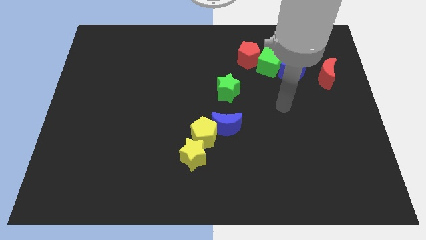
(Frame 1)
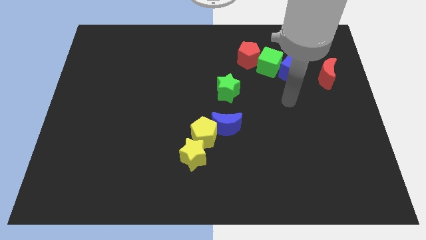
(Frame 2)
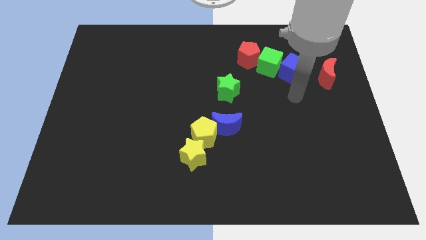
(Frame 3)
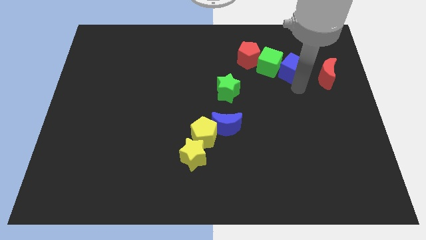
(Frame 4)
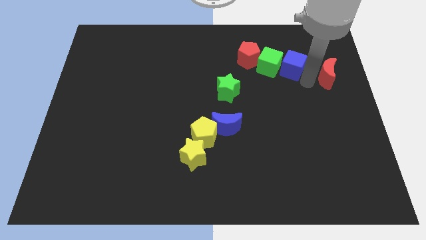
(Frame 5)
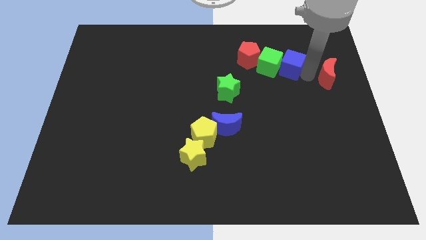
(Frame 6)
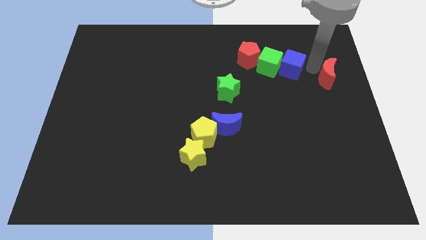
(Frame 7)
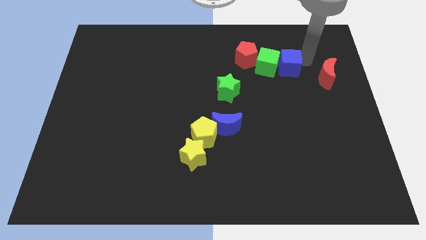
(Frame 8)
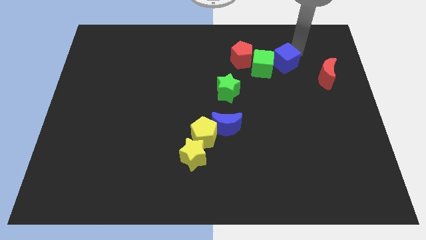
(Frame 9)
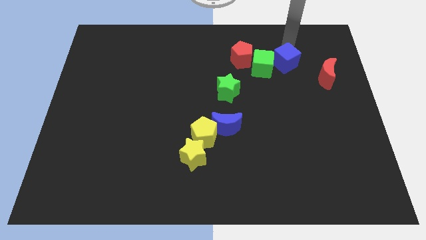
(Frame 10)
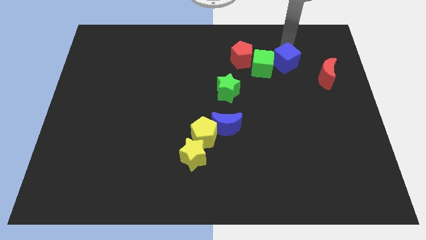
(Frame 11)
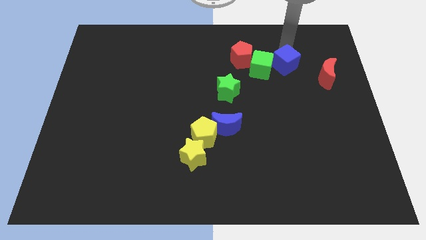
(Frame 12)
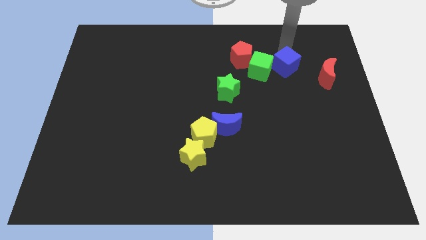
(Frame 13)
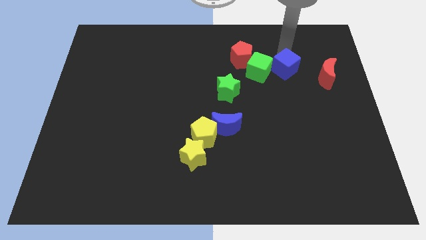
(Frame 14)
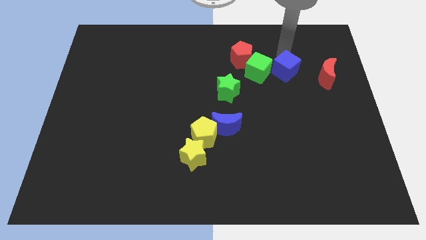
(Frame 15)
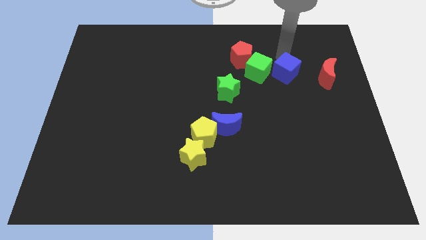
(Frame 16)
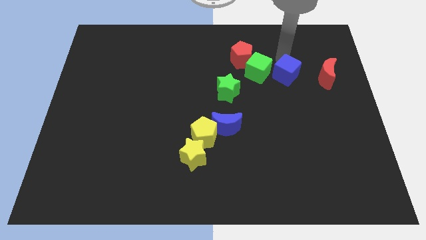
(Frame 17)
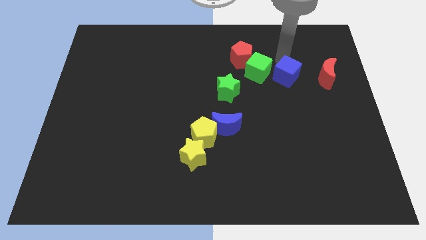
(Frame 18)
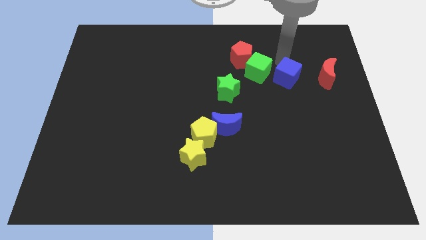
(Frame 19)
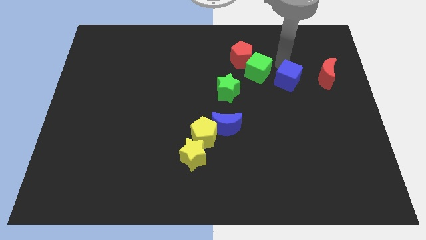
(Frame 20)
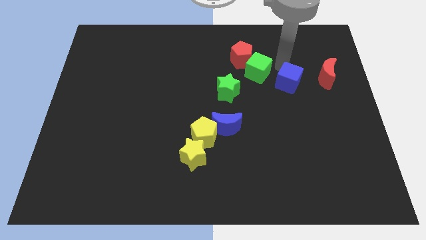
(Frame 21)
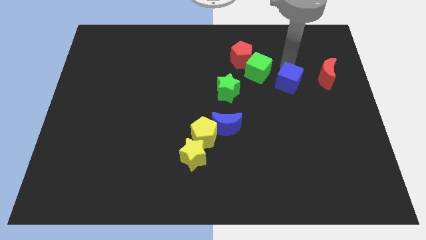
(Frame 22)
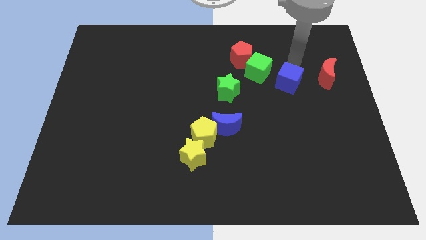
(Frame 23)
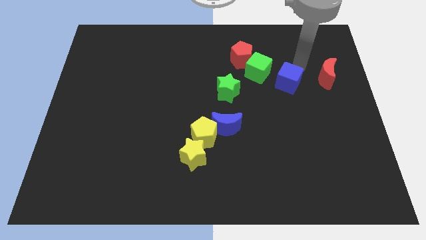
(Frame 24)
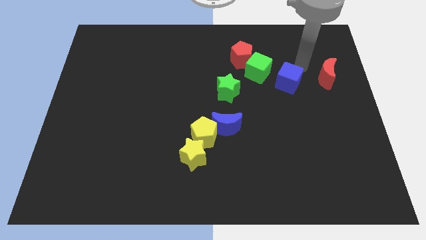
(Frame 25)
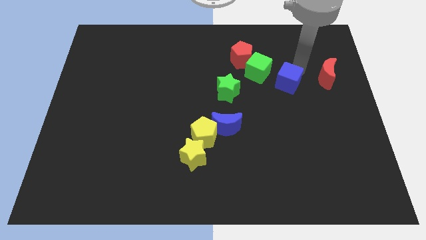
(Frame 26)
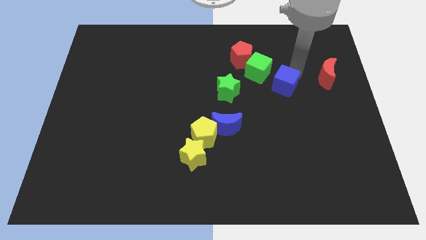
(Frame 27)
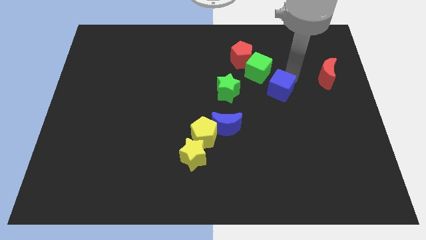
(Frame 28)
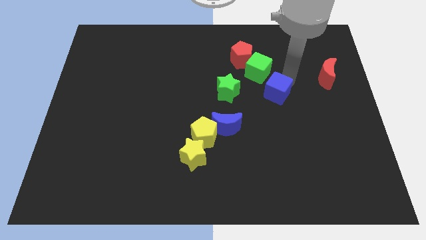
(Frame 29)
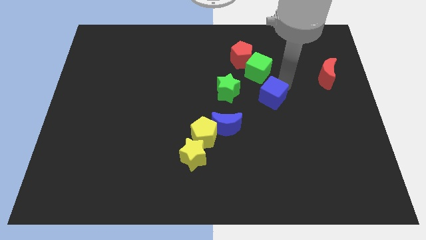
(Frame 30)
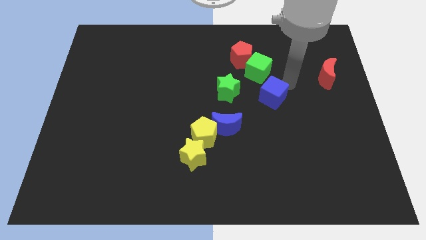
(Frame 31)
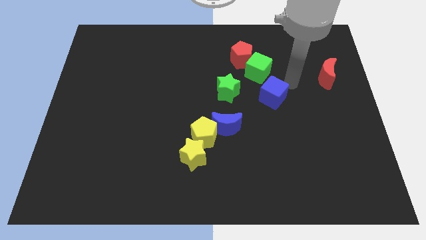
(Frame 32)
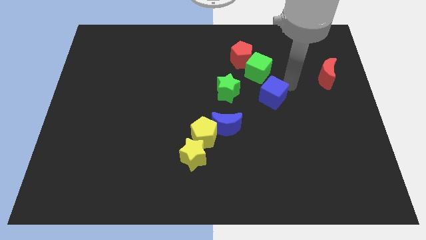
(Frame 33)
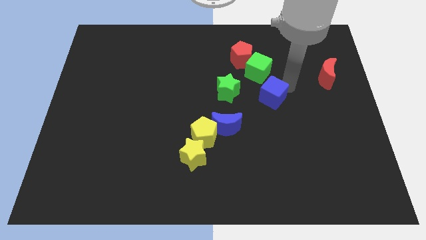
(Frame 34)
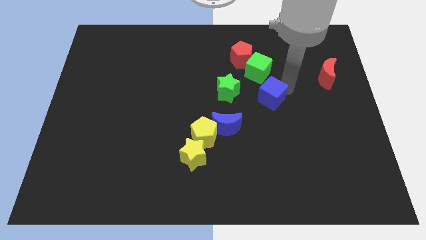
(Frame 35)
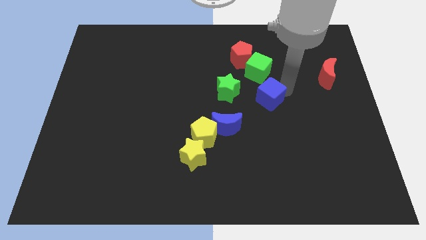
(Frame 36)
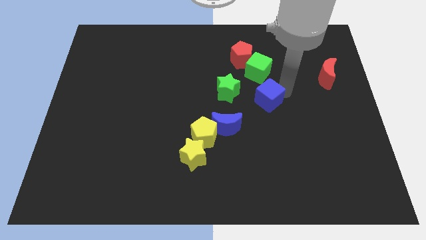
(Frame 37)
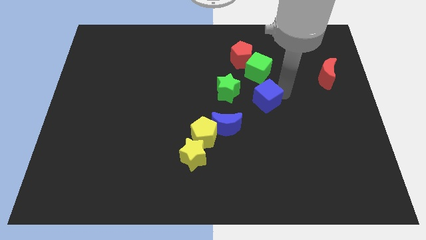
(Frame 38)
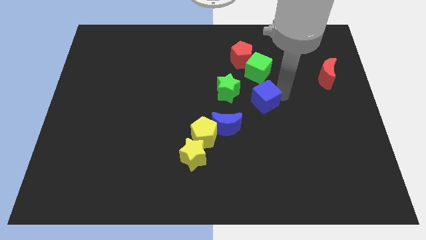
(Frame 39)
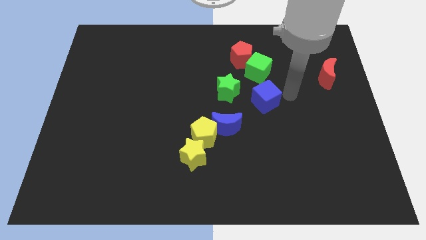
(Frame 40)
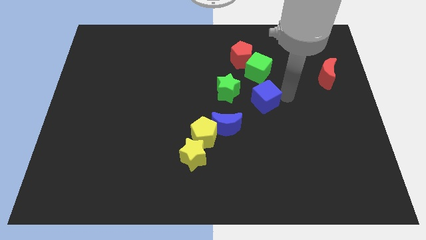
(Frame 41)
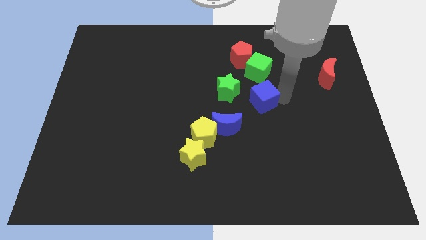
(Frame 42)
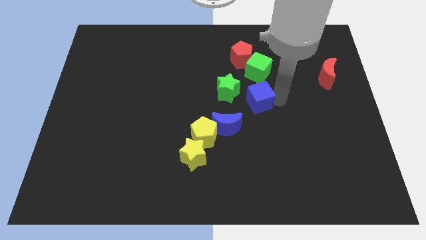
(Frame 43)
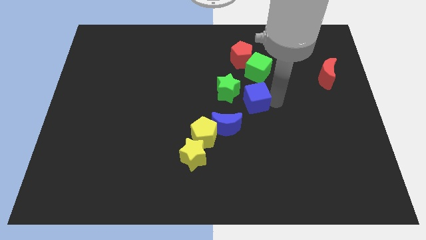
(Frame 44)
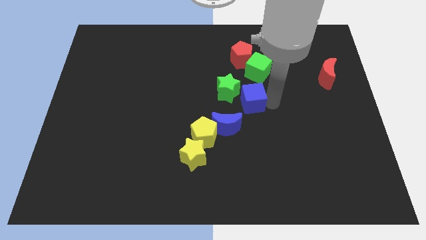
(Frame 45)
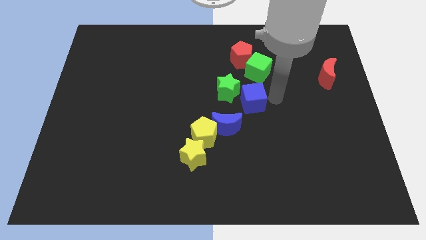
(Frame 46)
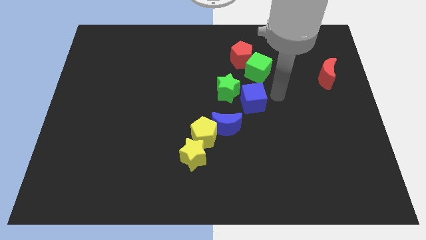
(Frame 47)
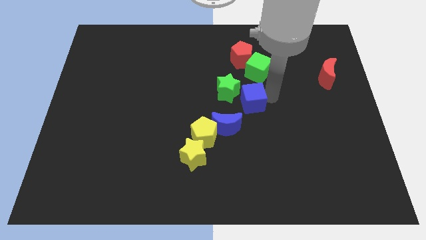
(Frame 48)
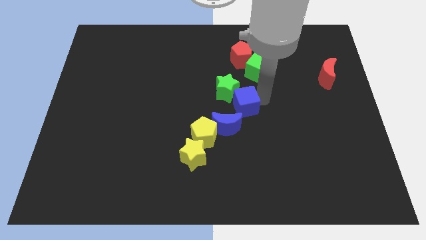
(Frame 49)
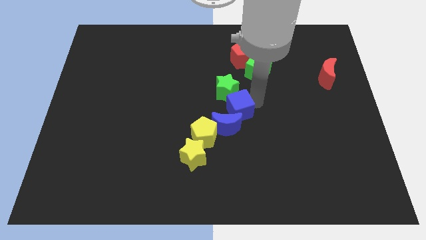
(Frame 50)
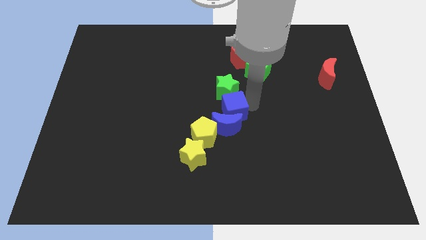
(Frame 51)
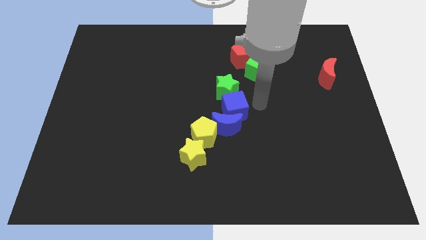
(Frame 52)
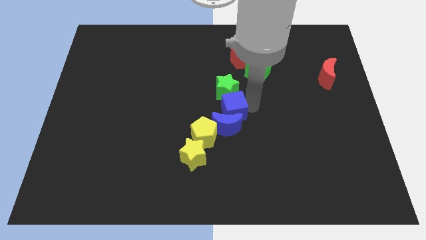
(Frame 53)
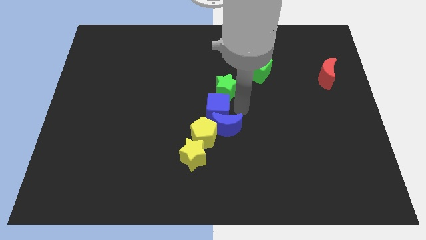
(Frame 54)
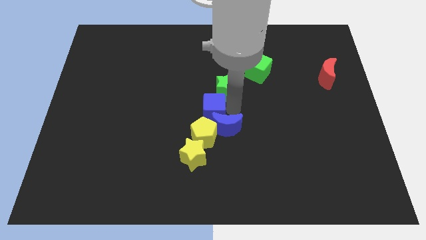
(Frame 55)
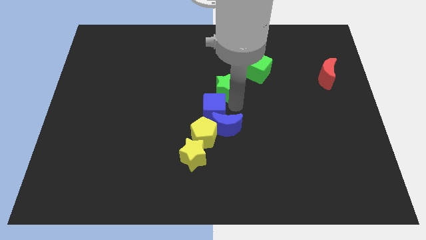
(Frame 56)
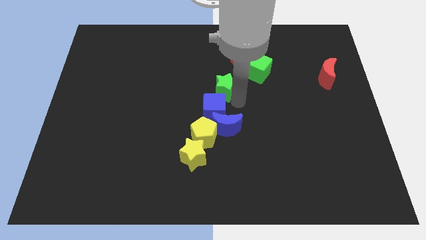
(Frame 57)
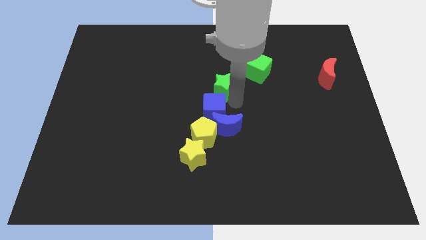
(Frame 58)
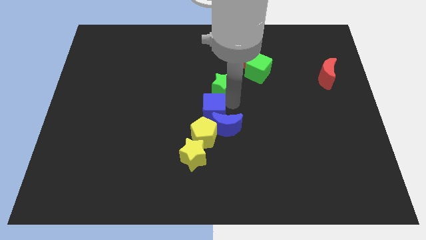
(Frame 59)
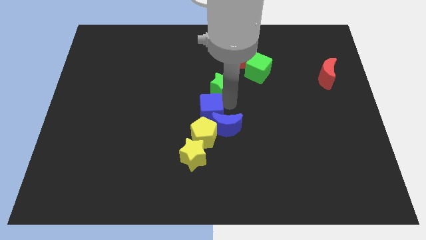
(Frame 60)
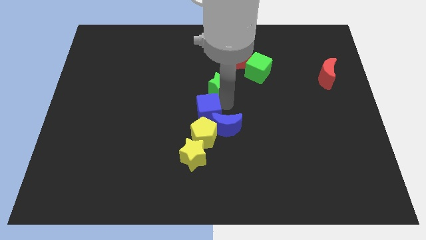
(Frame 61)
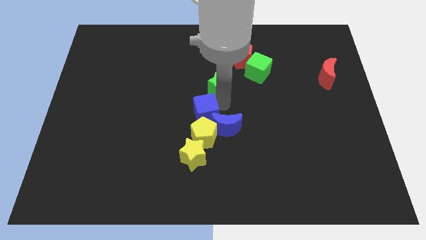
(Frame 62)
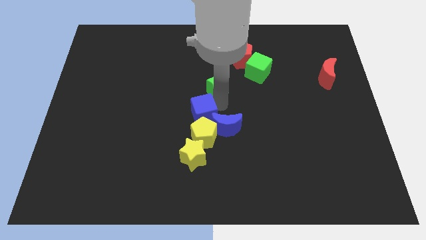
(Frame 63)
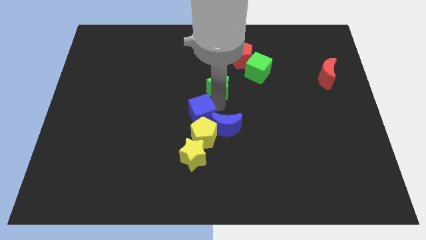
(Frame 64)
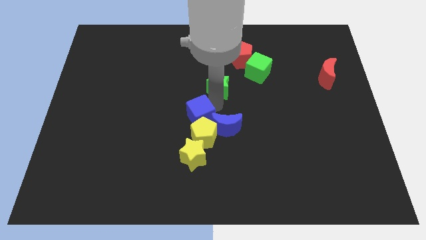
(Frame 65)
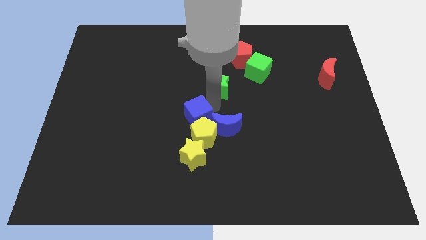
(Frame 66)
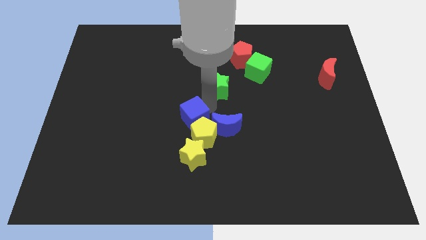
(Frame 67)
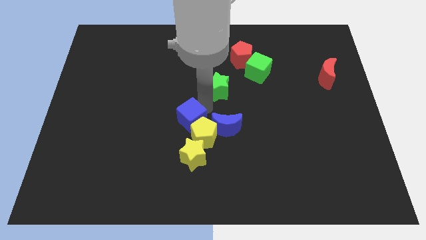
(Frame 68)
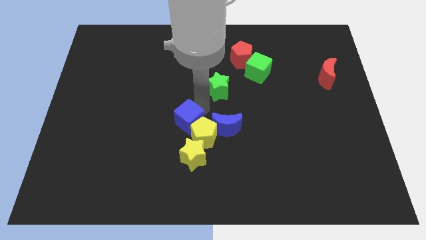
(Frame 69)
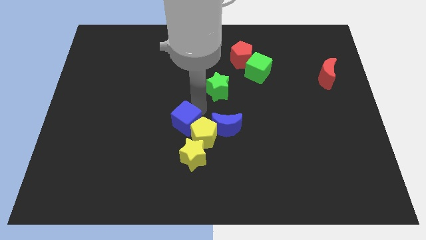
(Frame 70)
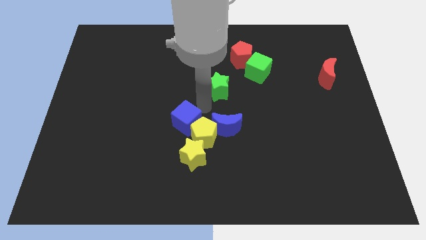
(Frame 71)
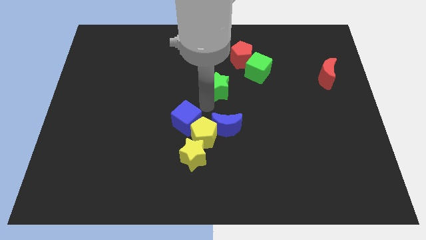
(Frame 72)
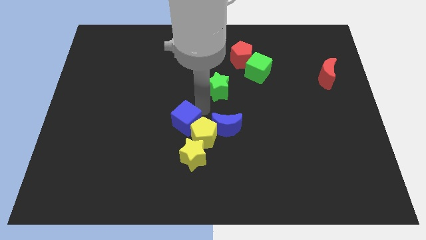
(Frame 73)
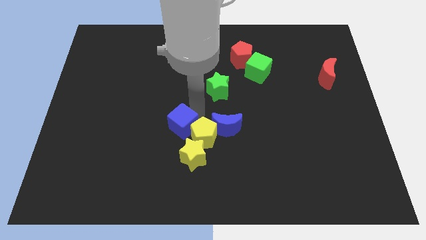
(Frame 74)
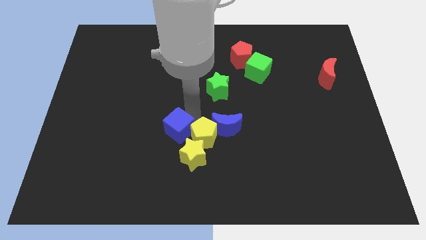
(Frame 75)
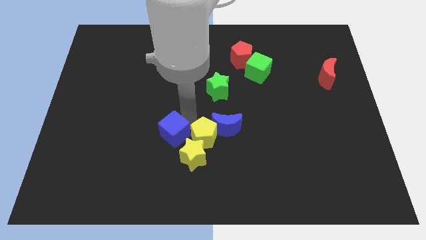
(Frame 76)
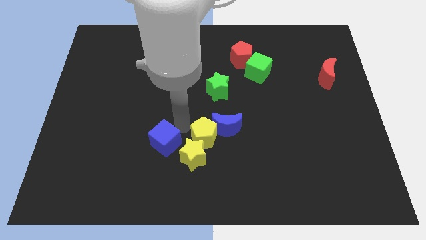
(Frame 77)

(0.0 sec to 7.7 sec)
move the blue cube left of the yellow star

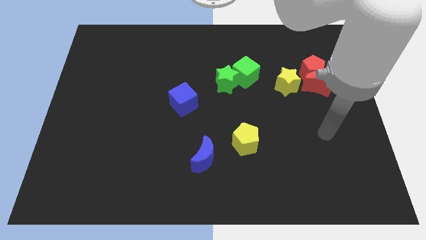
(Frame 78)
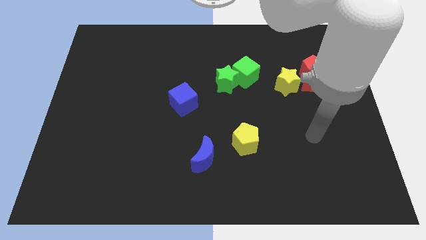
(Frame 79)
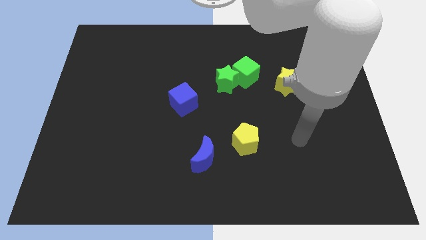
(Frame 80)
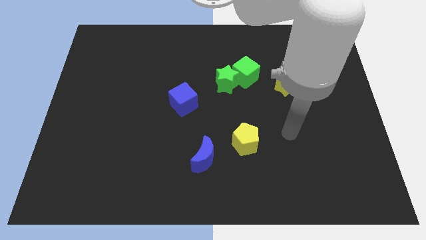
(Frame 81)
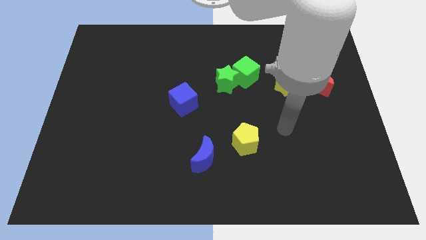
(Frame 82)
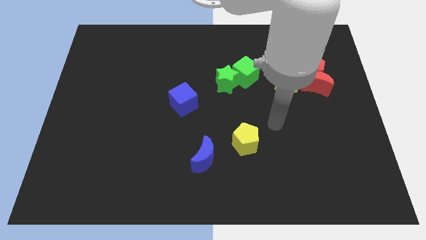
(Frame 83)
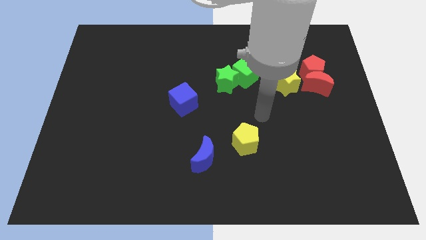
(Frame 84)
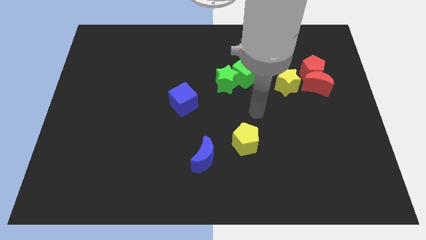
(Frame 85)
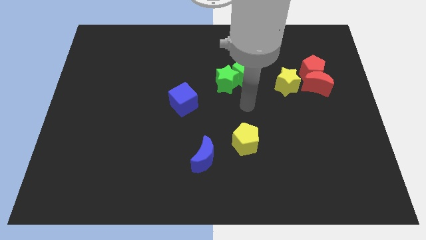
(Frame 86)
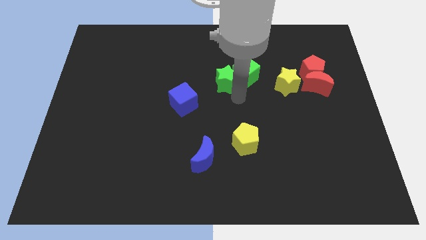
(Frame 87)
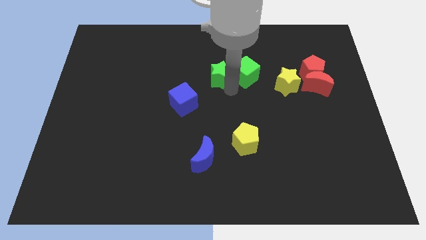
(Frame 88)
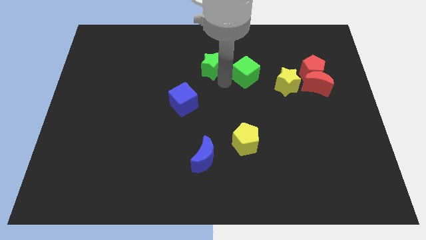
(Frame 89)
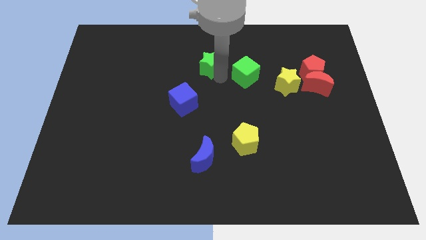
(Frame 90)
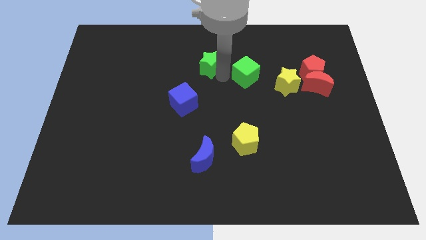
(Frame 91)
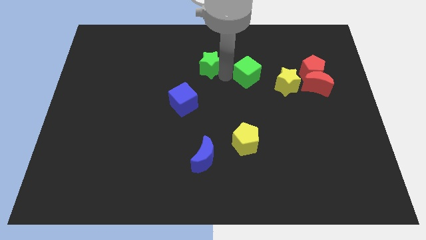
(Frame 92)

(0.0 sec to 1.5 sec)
put the green cube to the left side of the red pentagon
